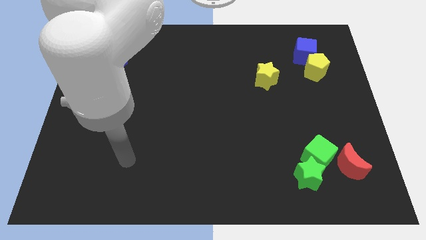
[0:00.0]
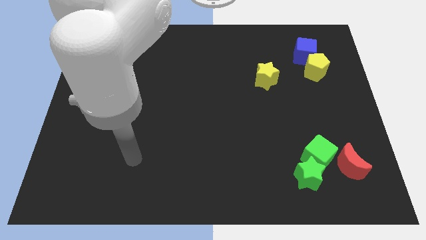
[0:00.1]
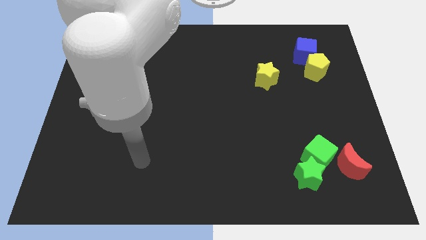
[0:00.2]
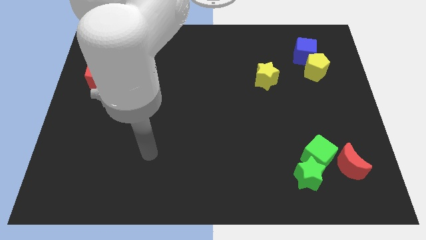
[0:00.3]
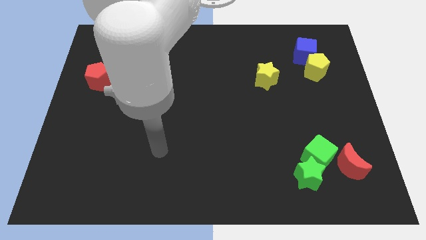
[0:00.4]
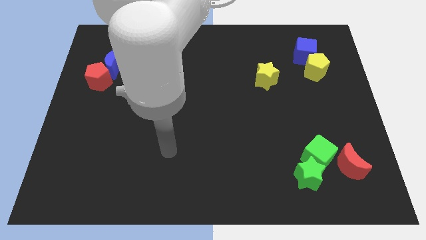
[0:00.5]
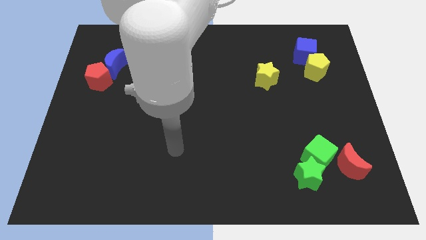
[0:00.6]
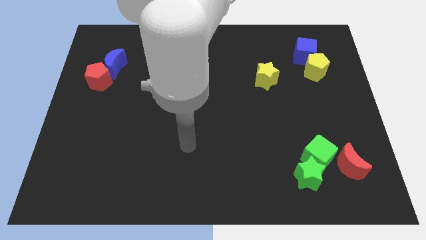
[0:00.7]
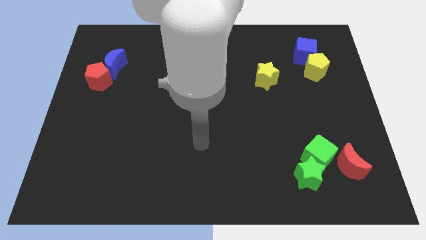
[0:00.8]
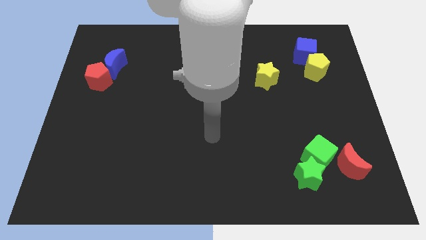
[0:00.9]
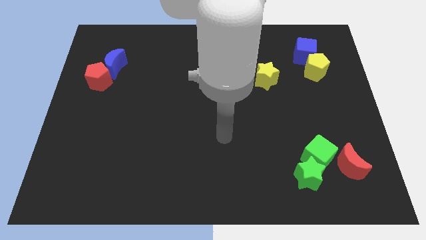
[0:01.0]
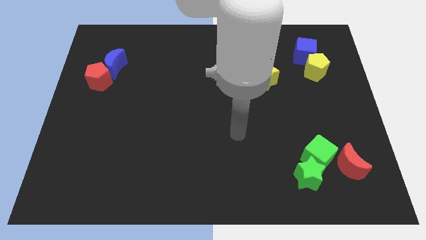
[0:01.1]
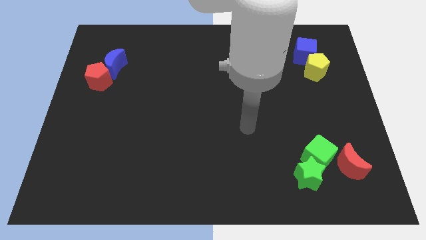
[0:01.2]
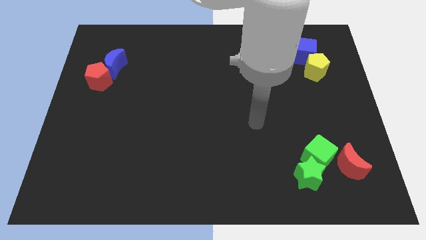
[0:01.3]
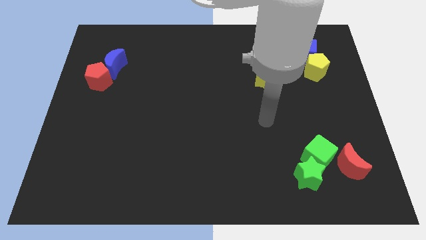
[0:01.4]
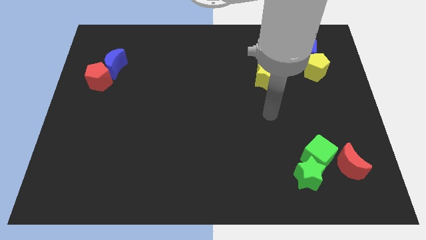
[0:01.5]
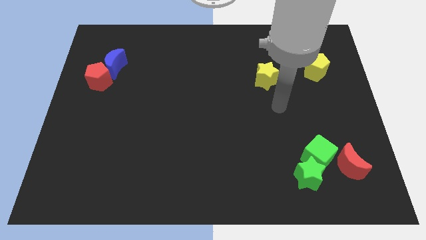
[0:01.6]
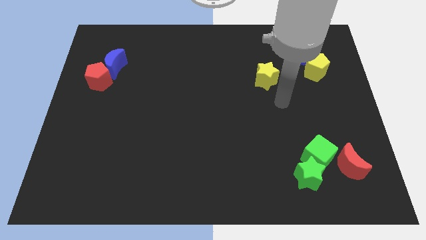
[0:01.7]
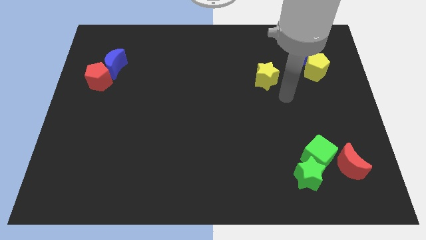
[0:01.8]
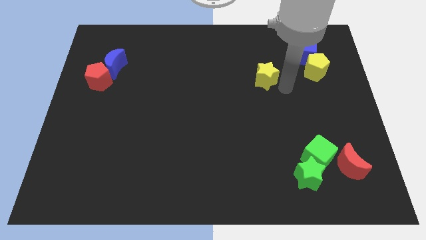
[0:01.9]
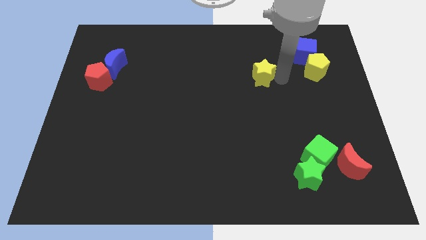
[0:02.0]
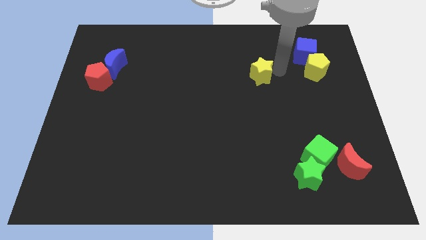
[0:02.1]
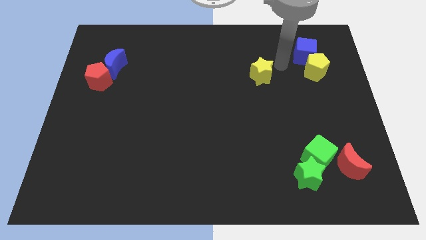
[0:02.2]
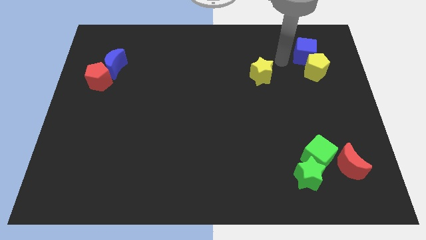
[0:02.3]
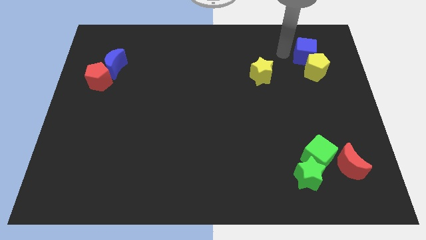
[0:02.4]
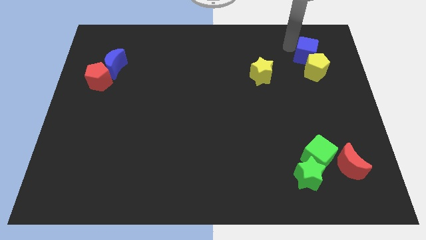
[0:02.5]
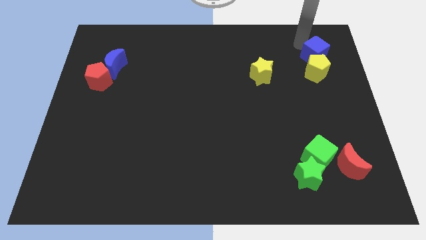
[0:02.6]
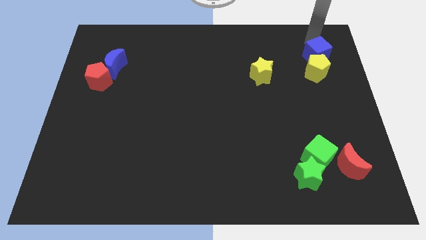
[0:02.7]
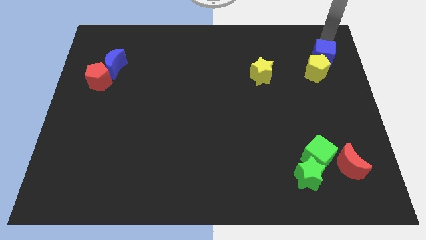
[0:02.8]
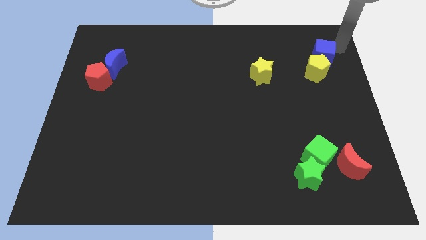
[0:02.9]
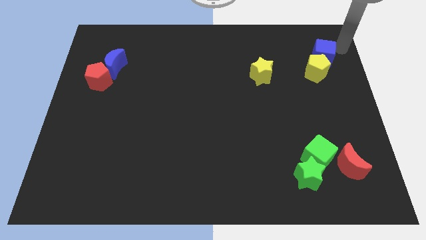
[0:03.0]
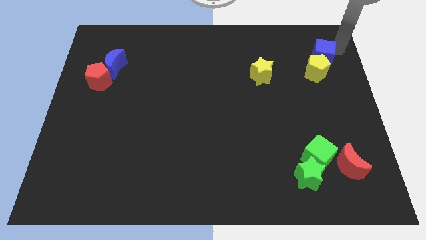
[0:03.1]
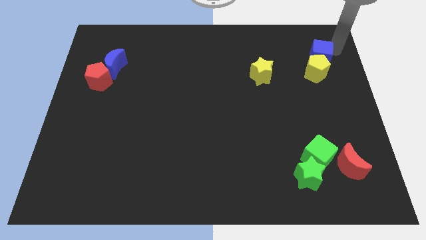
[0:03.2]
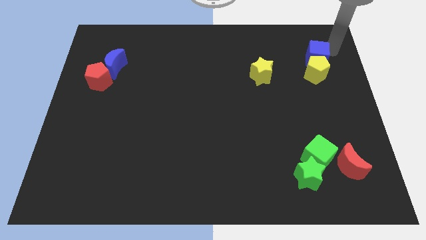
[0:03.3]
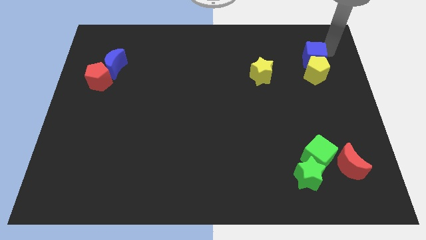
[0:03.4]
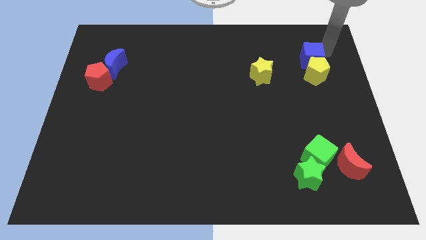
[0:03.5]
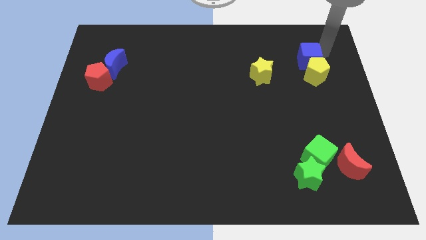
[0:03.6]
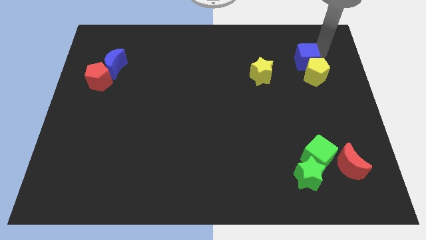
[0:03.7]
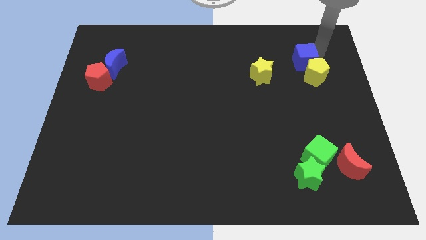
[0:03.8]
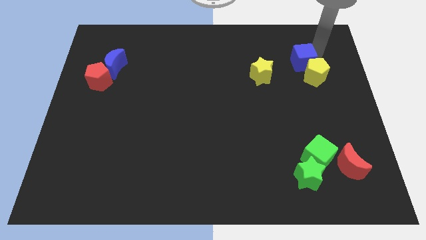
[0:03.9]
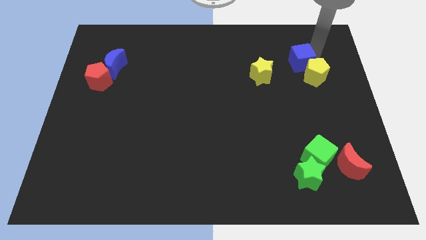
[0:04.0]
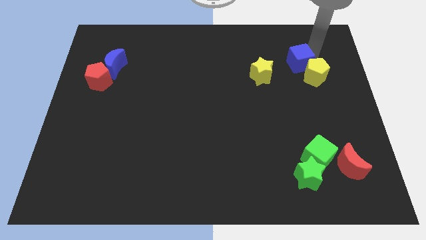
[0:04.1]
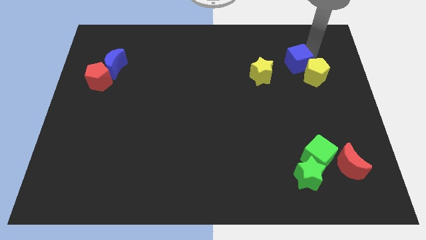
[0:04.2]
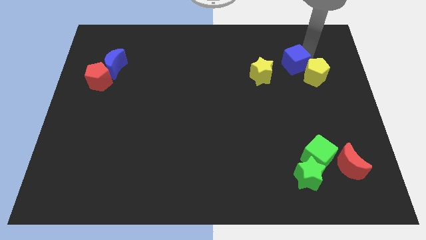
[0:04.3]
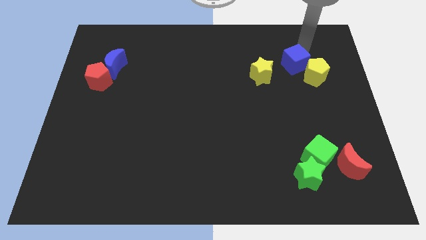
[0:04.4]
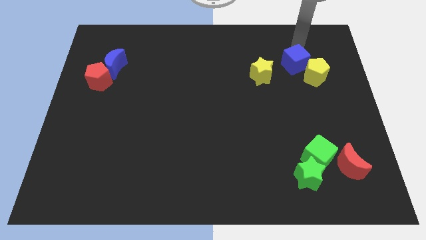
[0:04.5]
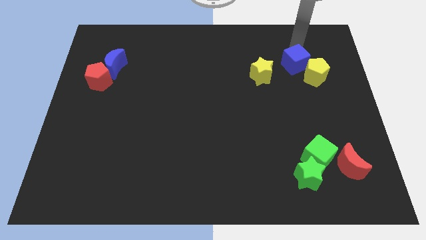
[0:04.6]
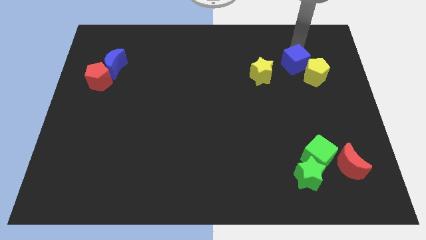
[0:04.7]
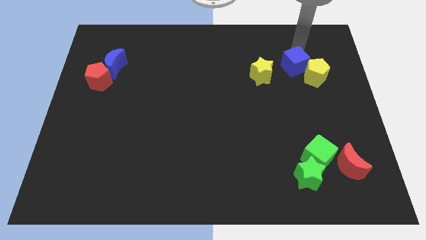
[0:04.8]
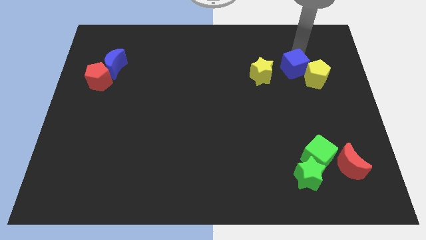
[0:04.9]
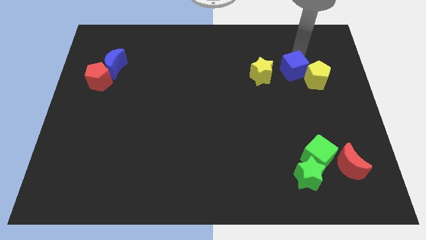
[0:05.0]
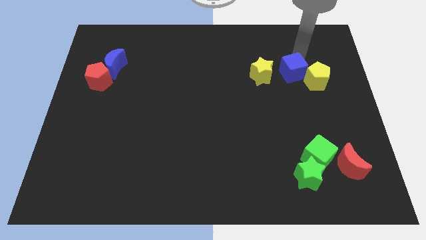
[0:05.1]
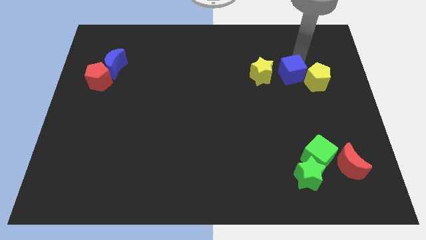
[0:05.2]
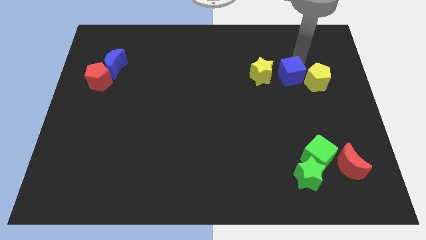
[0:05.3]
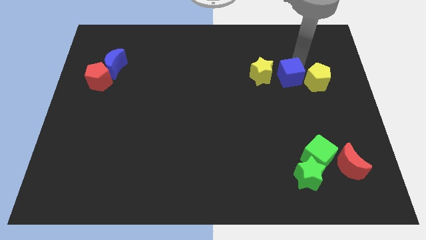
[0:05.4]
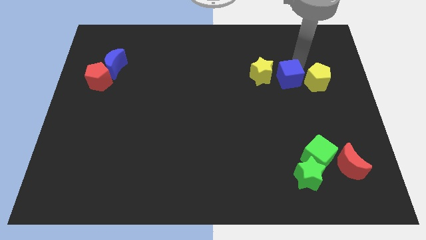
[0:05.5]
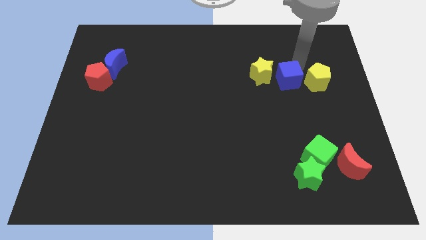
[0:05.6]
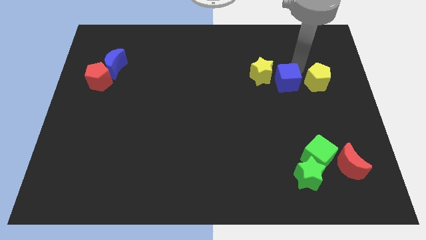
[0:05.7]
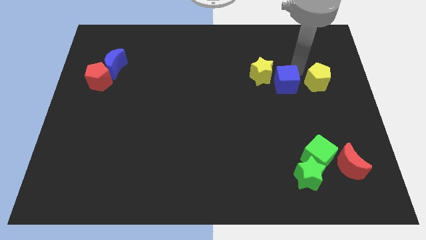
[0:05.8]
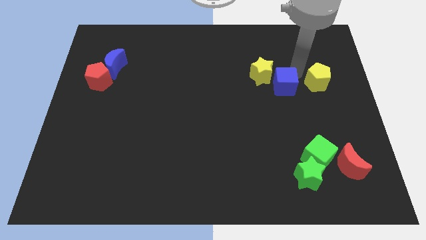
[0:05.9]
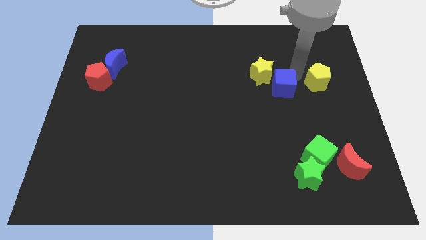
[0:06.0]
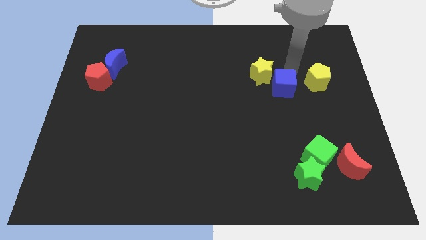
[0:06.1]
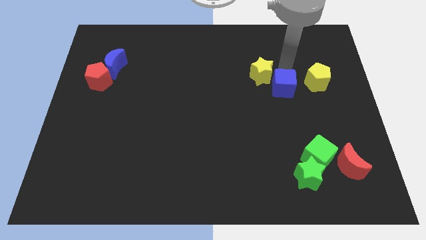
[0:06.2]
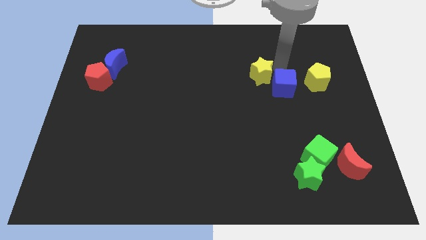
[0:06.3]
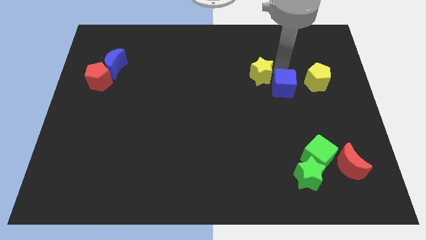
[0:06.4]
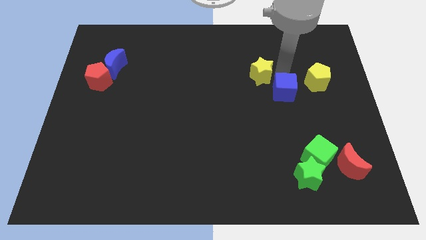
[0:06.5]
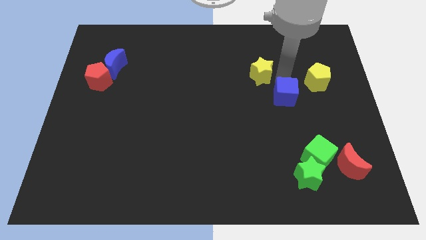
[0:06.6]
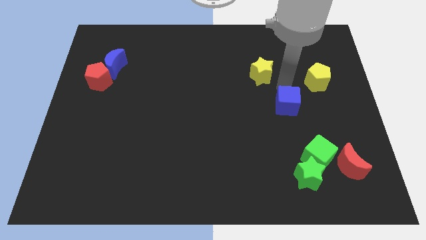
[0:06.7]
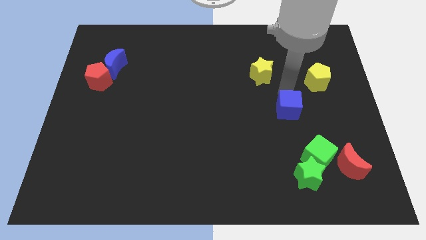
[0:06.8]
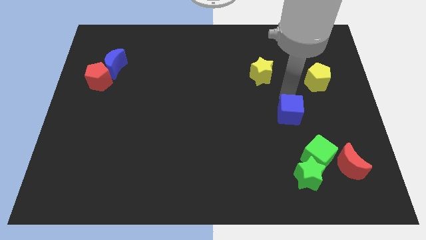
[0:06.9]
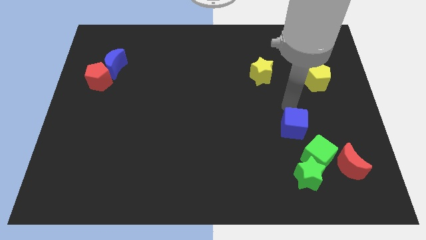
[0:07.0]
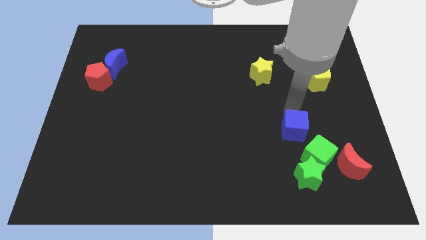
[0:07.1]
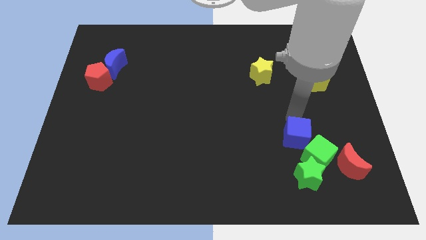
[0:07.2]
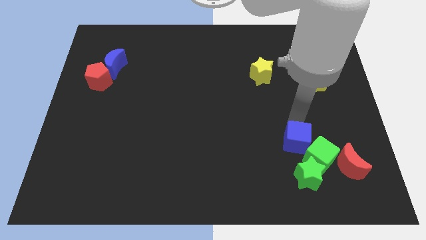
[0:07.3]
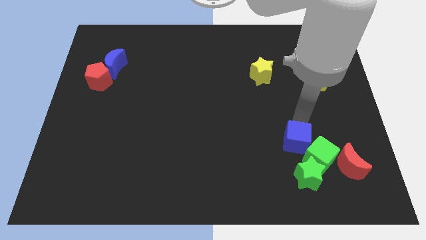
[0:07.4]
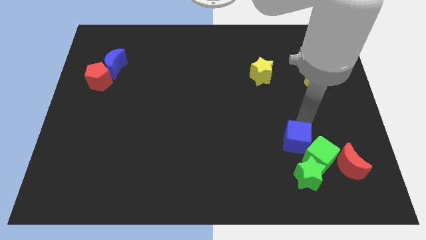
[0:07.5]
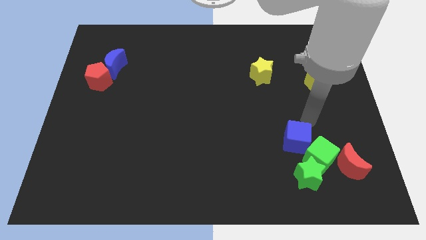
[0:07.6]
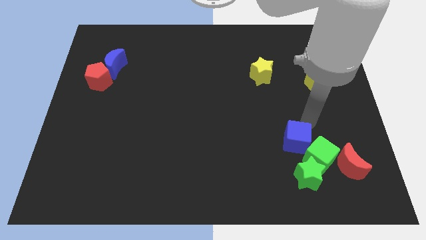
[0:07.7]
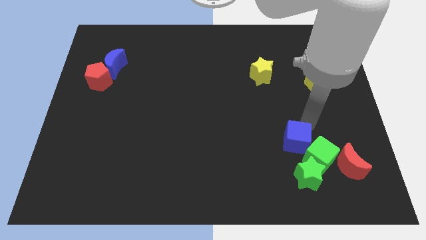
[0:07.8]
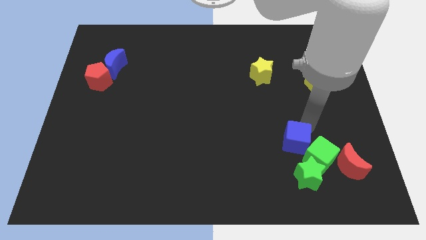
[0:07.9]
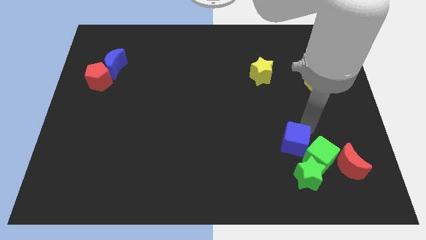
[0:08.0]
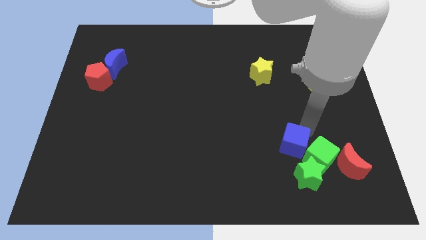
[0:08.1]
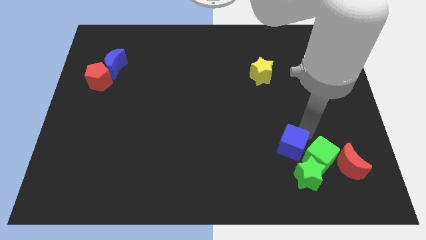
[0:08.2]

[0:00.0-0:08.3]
slide the blue cube to the left side of the red moon
